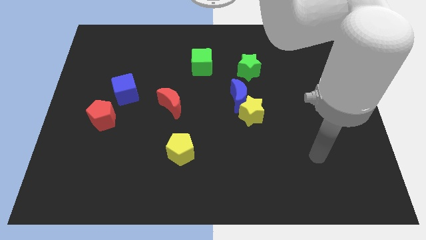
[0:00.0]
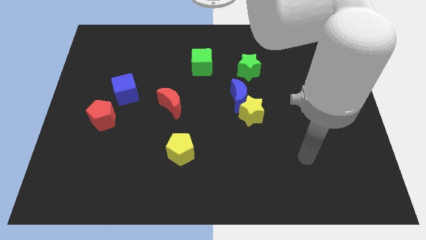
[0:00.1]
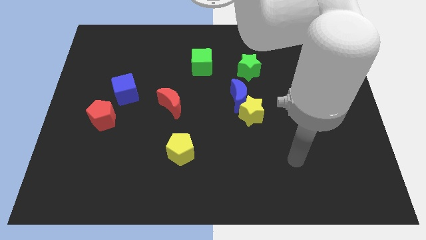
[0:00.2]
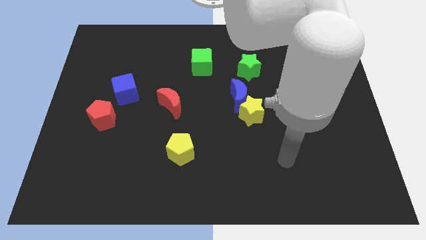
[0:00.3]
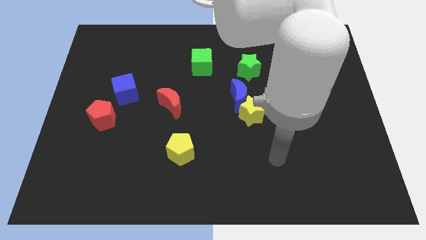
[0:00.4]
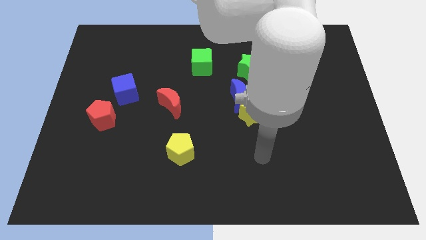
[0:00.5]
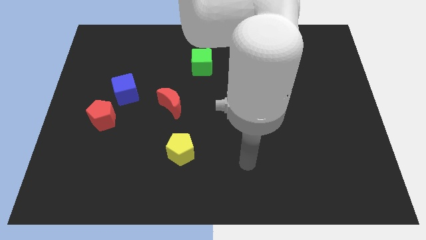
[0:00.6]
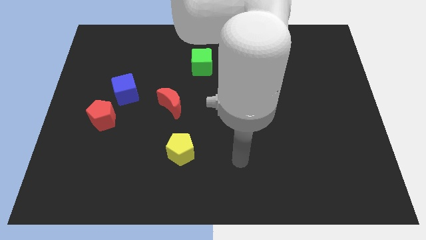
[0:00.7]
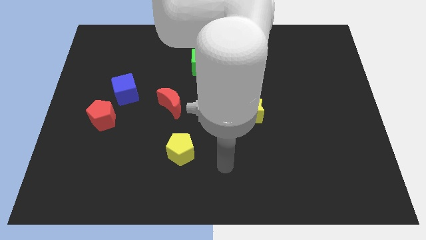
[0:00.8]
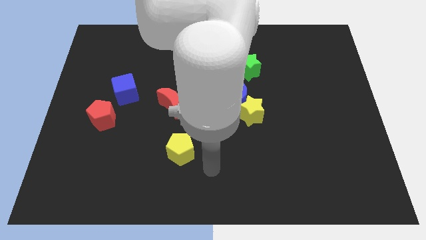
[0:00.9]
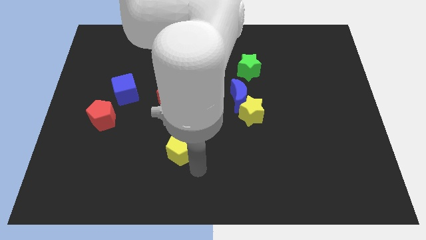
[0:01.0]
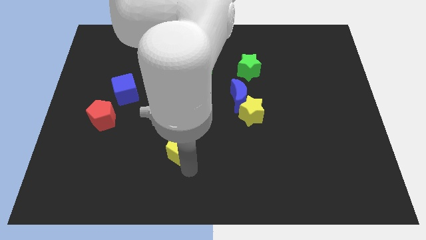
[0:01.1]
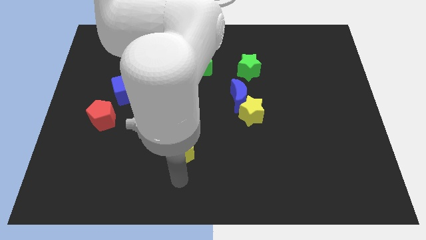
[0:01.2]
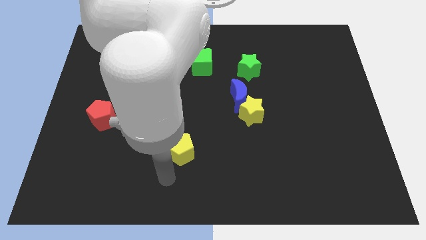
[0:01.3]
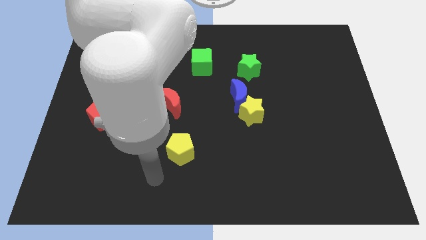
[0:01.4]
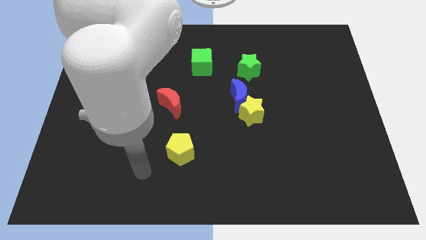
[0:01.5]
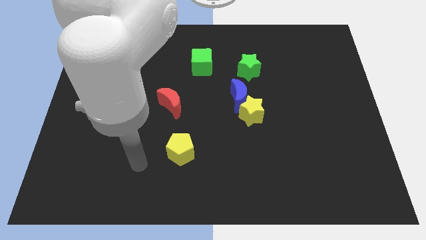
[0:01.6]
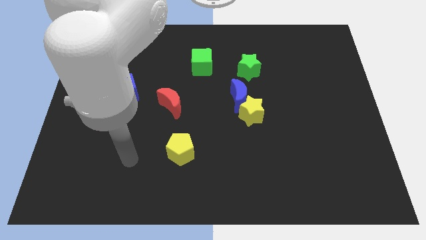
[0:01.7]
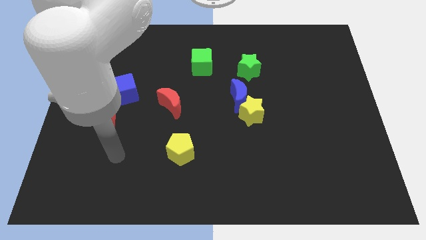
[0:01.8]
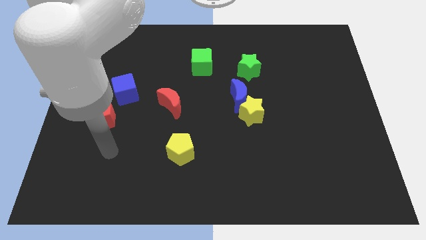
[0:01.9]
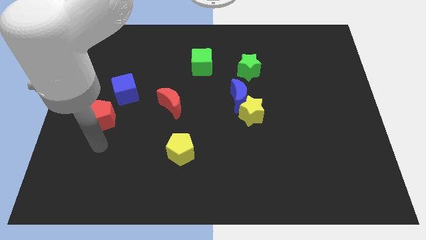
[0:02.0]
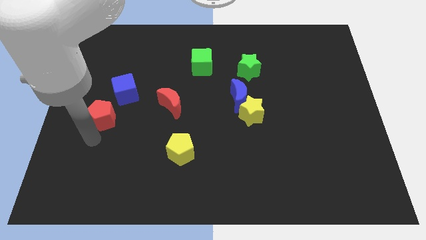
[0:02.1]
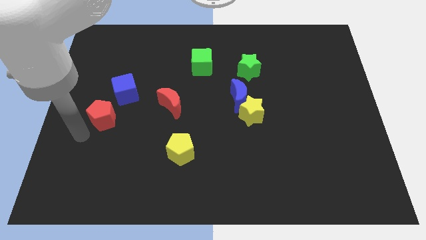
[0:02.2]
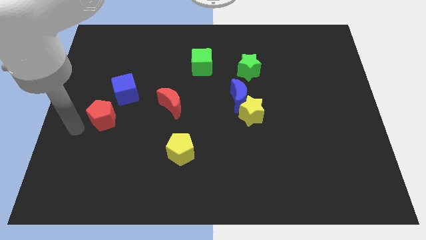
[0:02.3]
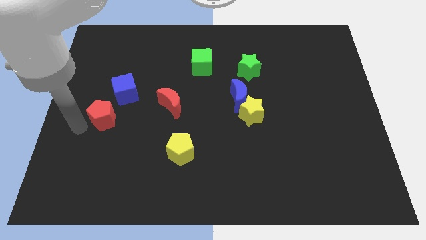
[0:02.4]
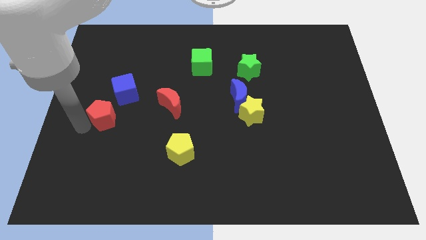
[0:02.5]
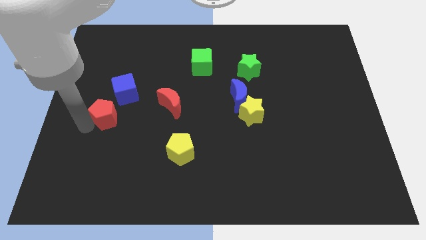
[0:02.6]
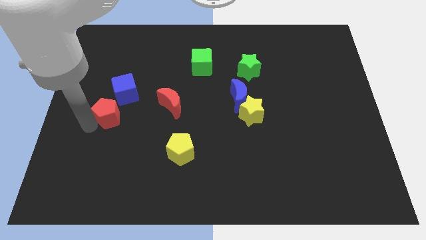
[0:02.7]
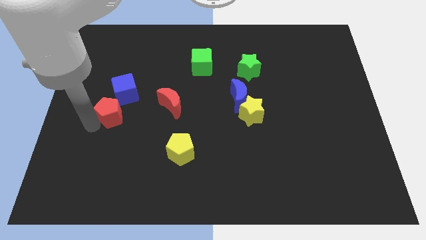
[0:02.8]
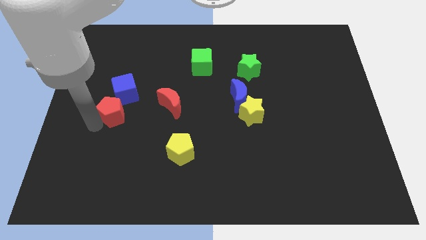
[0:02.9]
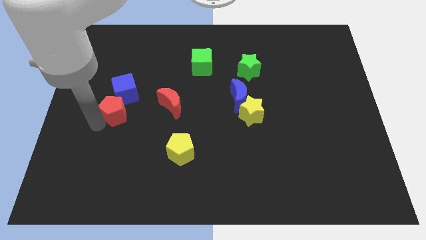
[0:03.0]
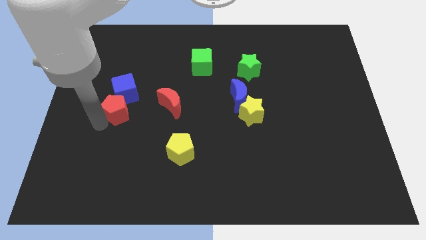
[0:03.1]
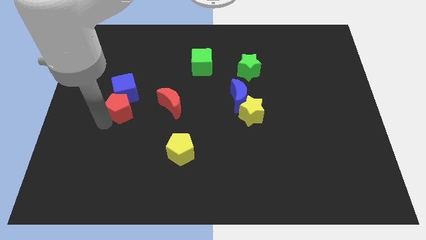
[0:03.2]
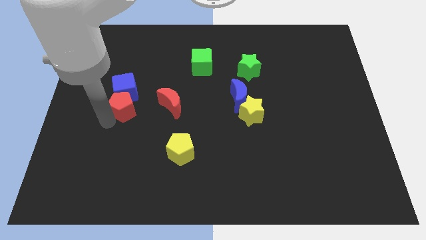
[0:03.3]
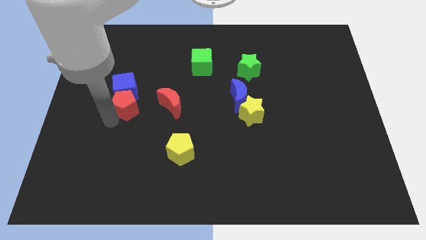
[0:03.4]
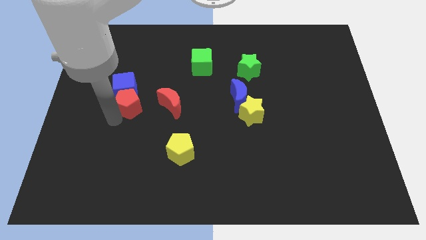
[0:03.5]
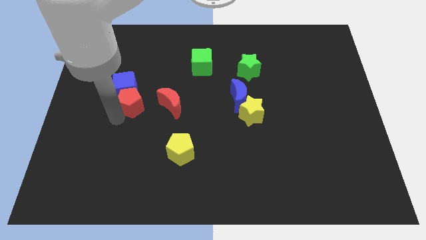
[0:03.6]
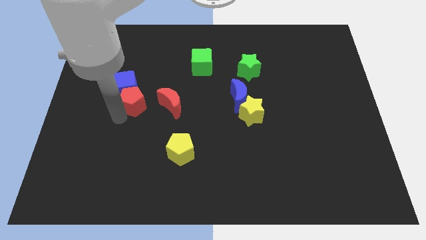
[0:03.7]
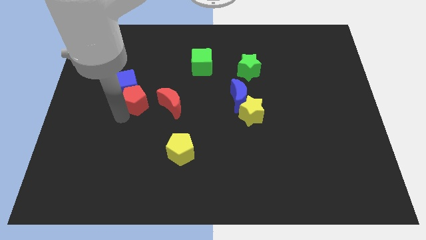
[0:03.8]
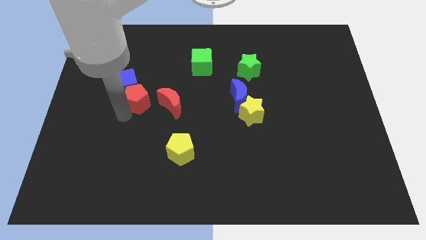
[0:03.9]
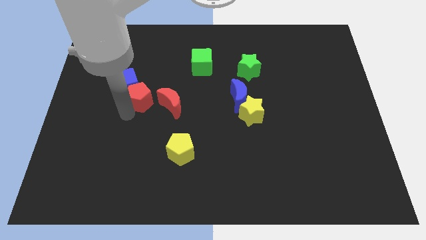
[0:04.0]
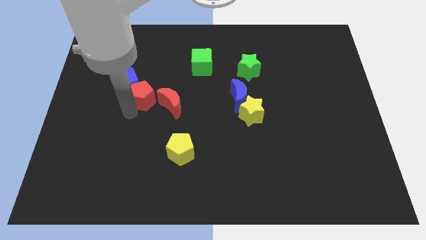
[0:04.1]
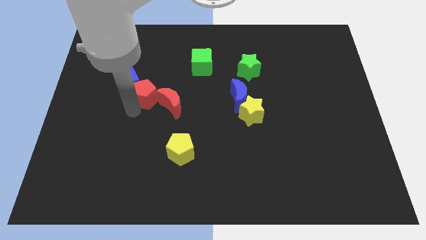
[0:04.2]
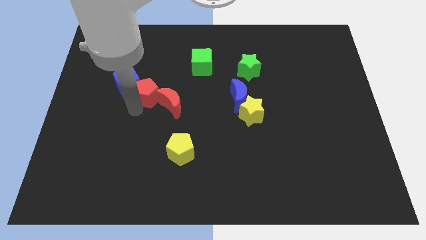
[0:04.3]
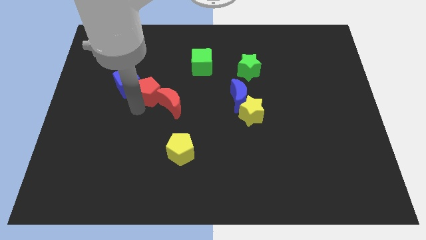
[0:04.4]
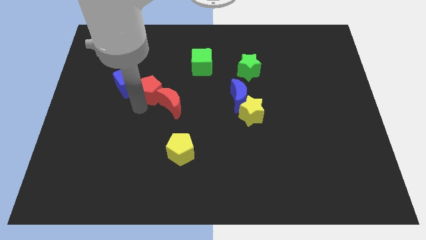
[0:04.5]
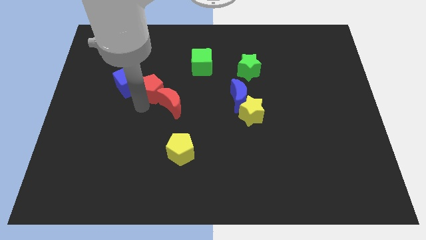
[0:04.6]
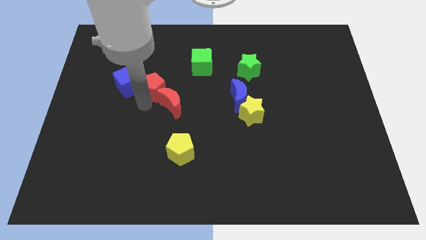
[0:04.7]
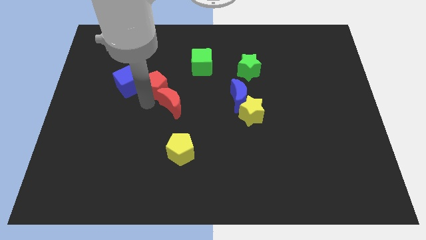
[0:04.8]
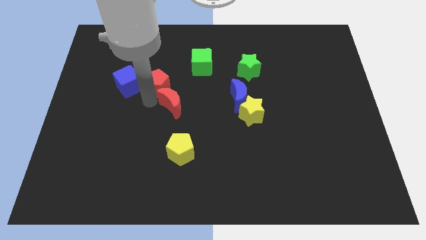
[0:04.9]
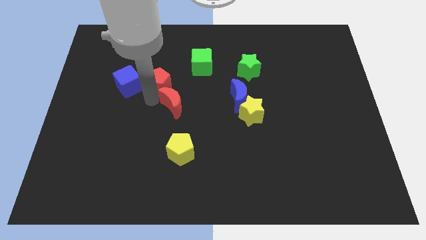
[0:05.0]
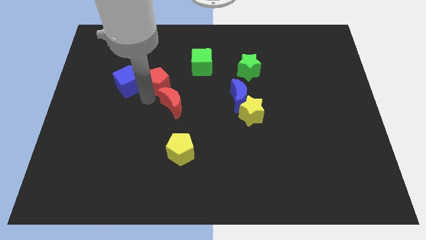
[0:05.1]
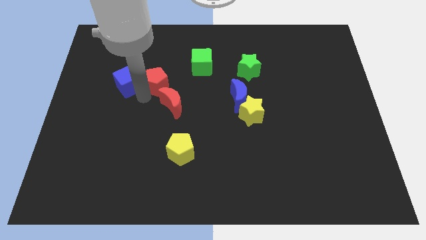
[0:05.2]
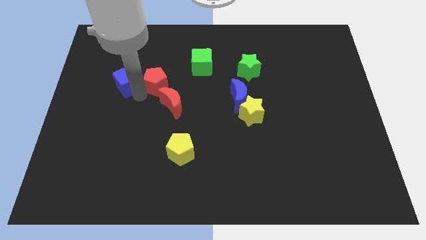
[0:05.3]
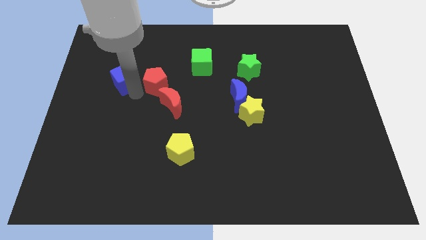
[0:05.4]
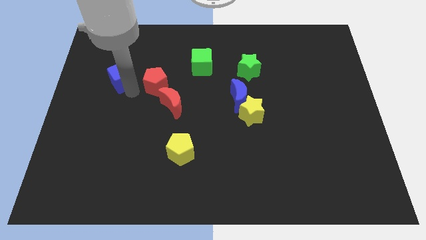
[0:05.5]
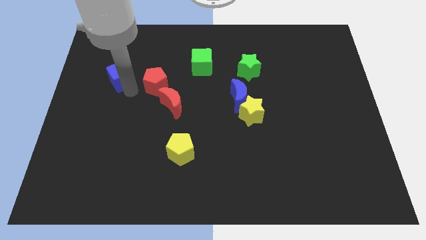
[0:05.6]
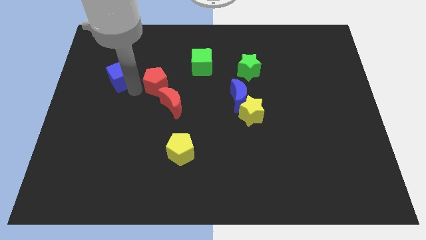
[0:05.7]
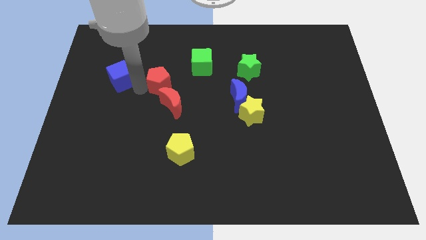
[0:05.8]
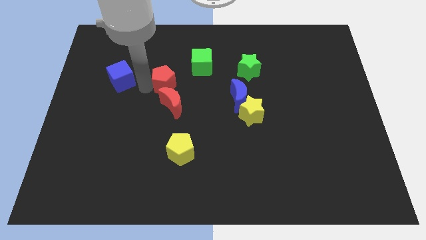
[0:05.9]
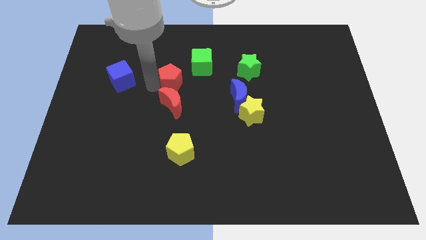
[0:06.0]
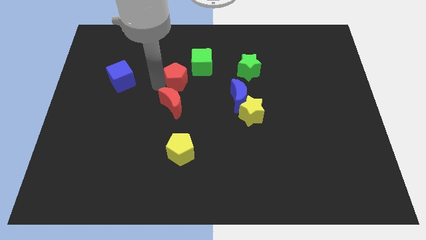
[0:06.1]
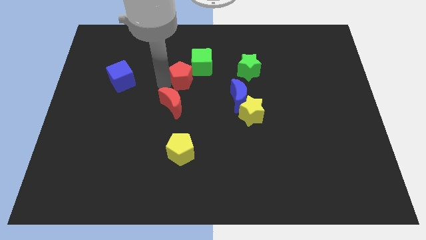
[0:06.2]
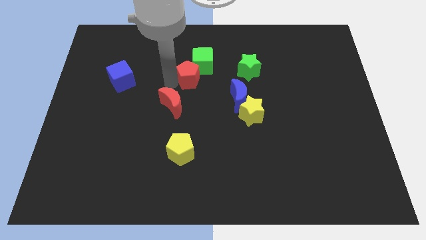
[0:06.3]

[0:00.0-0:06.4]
push the red pentagon towards the green cube

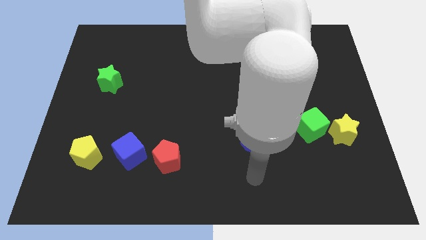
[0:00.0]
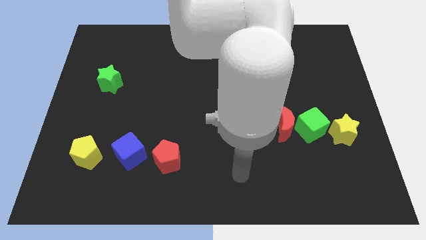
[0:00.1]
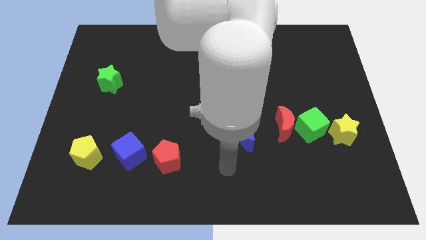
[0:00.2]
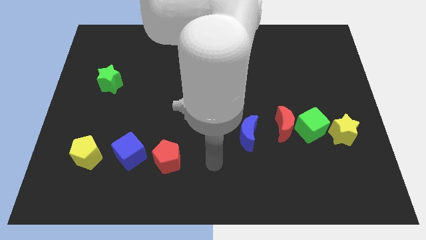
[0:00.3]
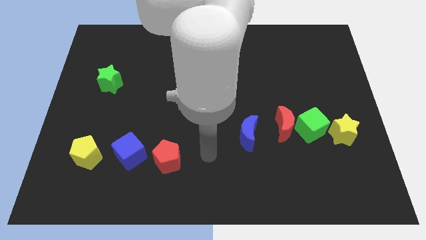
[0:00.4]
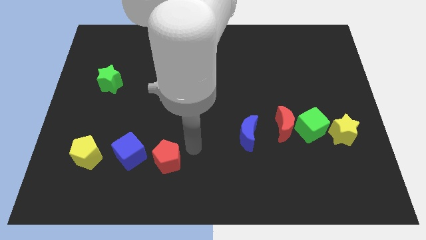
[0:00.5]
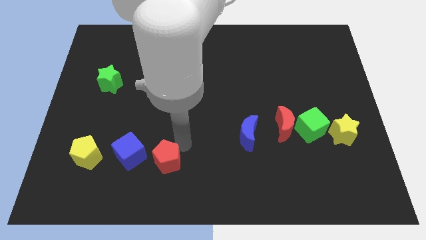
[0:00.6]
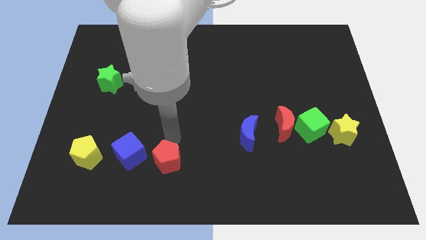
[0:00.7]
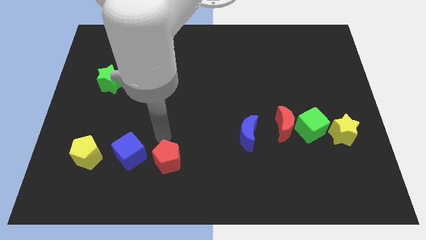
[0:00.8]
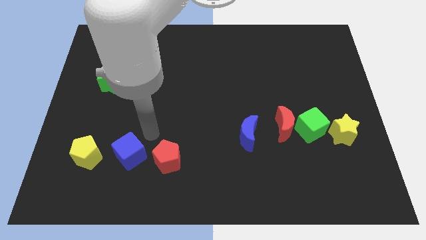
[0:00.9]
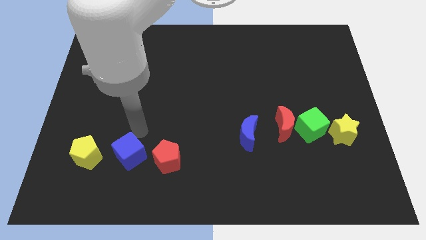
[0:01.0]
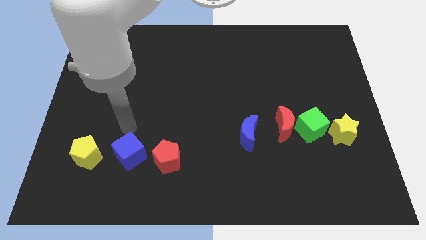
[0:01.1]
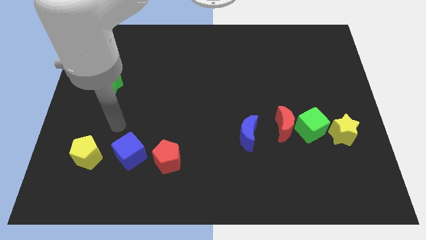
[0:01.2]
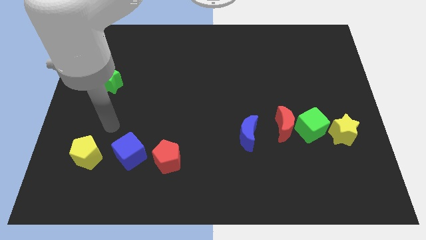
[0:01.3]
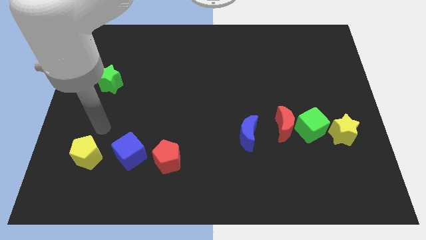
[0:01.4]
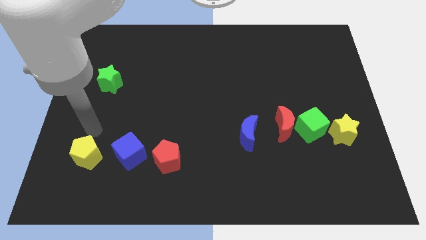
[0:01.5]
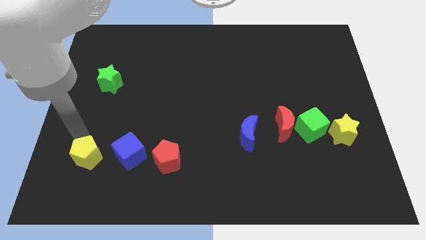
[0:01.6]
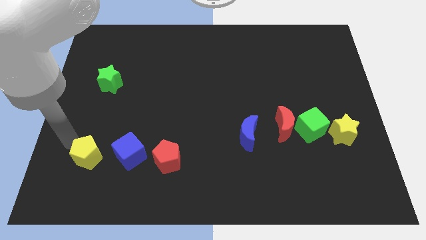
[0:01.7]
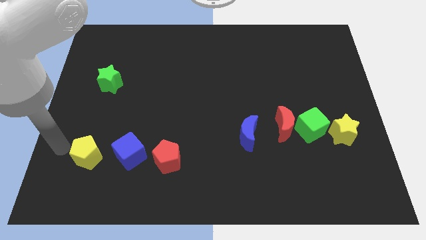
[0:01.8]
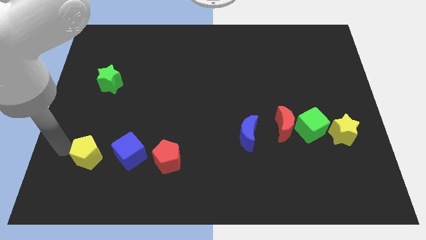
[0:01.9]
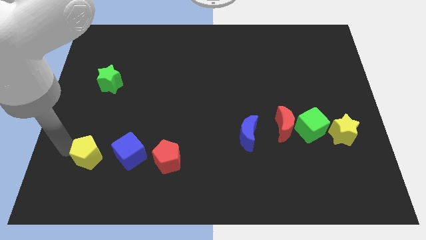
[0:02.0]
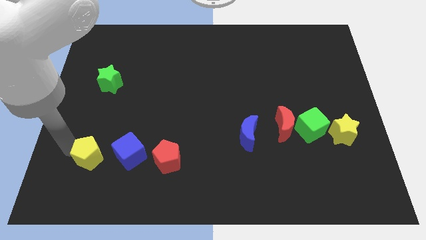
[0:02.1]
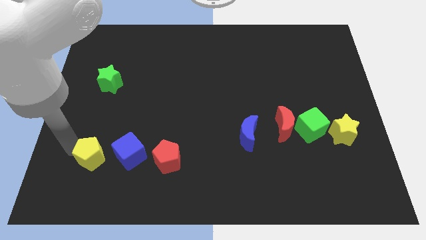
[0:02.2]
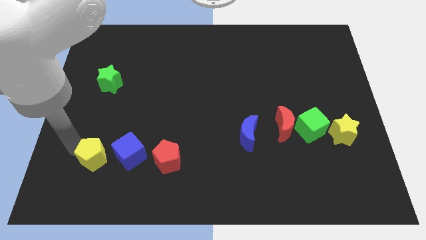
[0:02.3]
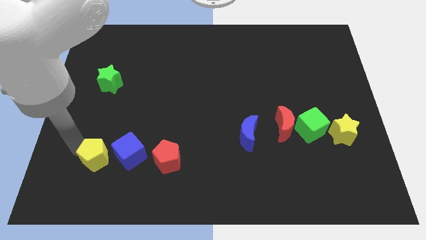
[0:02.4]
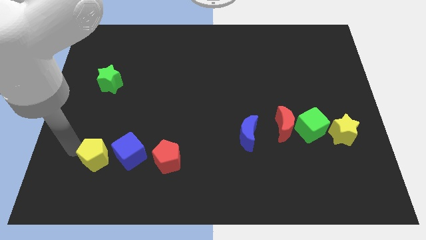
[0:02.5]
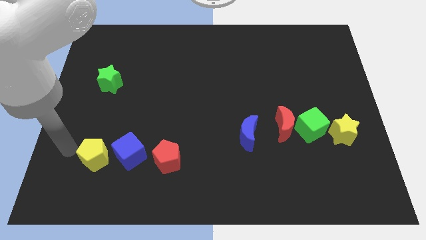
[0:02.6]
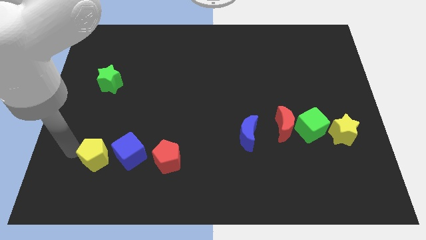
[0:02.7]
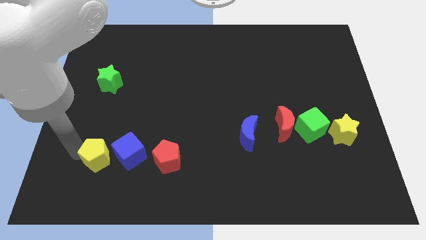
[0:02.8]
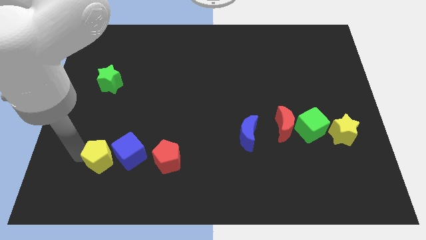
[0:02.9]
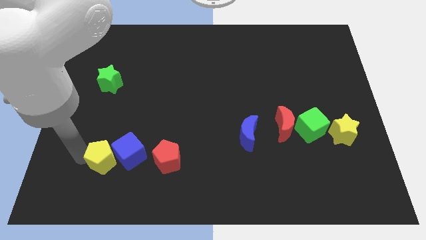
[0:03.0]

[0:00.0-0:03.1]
move the yellow pentagon close to the blue cube
